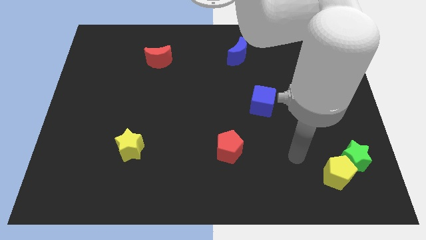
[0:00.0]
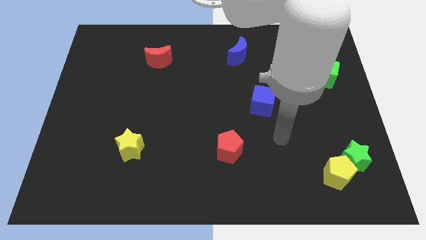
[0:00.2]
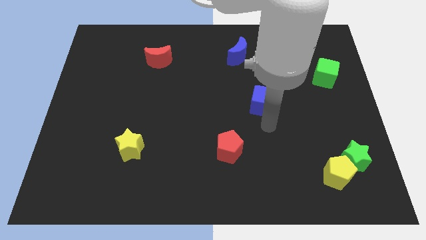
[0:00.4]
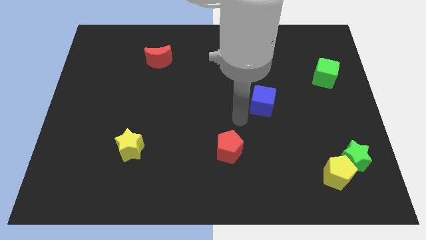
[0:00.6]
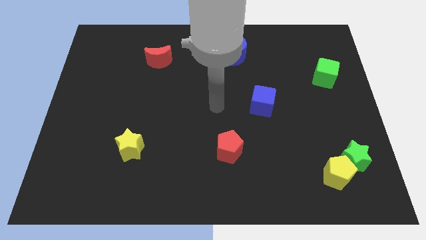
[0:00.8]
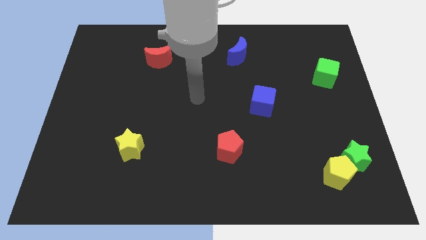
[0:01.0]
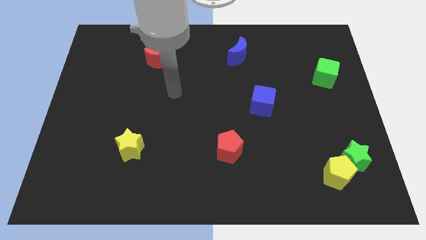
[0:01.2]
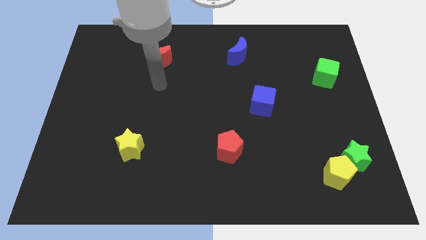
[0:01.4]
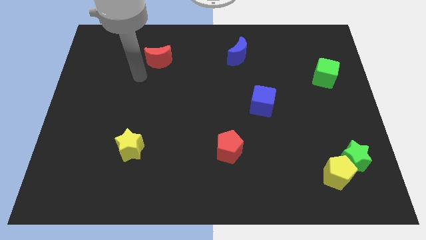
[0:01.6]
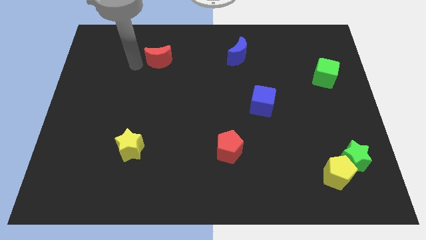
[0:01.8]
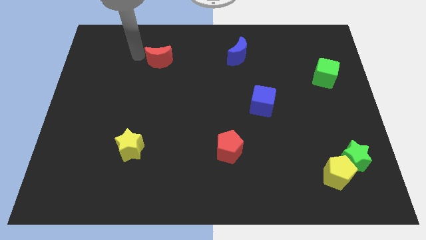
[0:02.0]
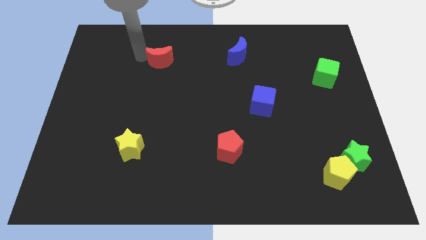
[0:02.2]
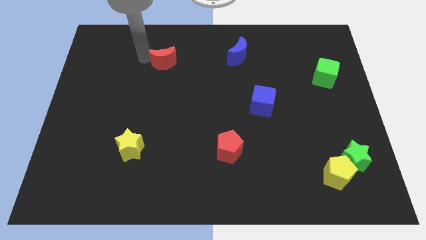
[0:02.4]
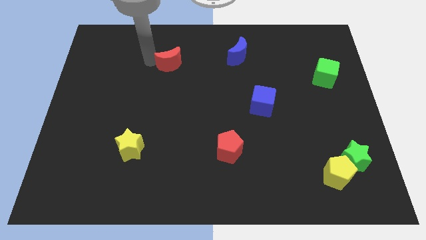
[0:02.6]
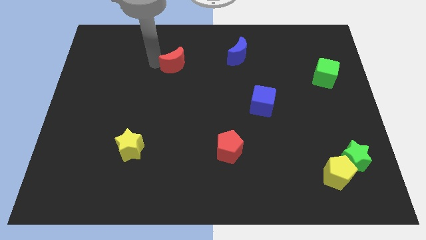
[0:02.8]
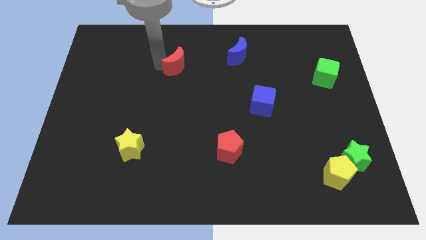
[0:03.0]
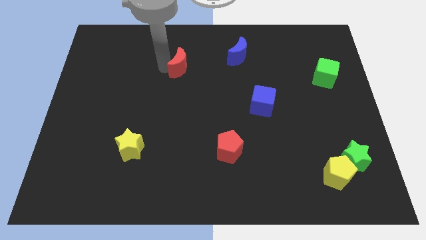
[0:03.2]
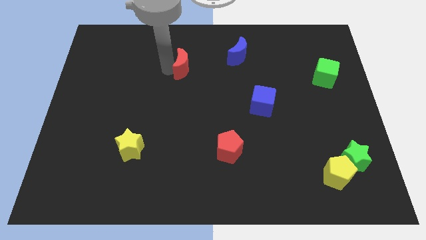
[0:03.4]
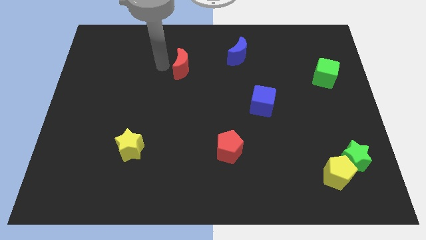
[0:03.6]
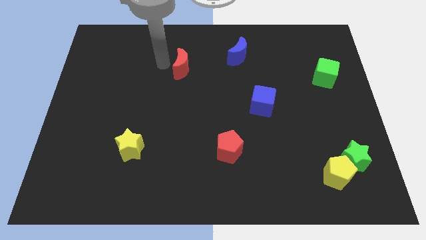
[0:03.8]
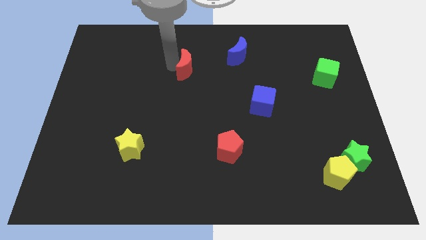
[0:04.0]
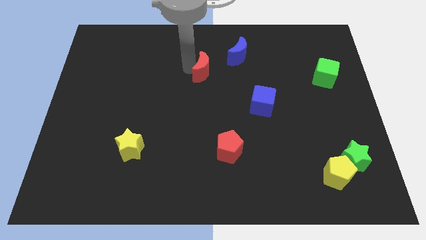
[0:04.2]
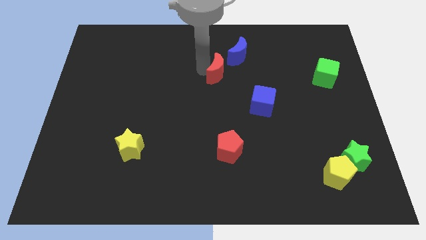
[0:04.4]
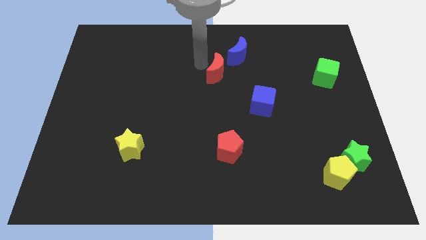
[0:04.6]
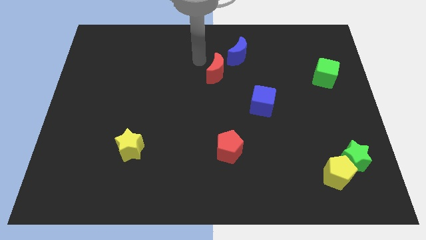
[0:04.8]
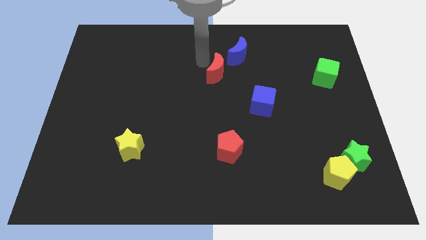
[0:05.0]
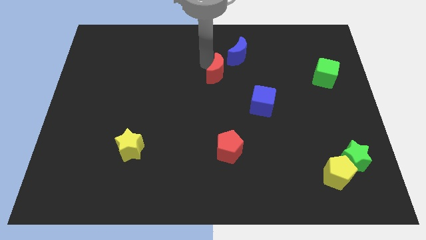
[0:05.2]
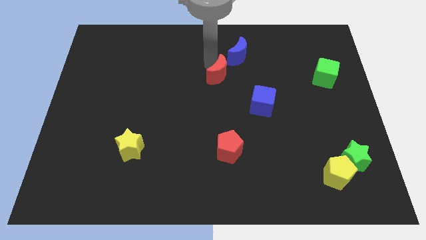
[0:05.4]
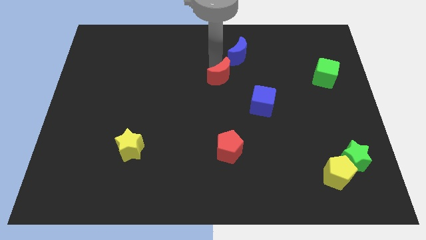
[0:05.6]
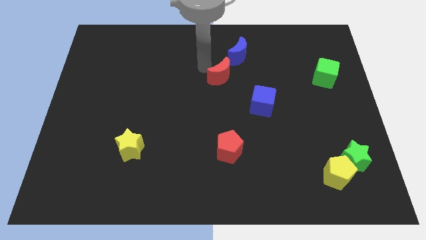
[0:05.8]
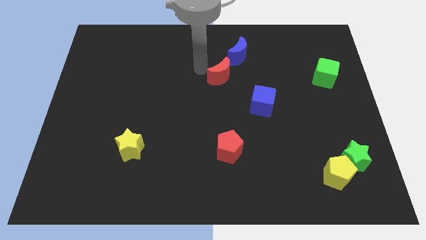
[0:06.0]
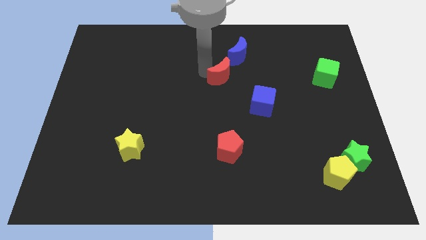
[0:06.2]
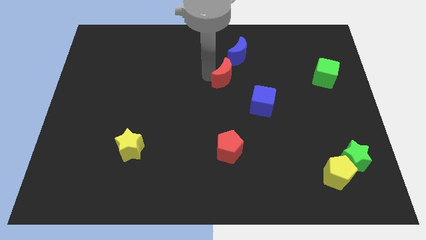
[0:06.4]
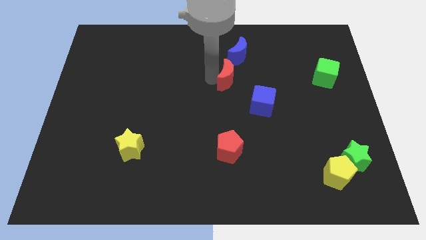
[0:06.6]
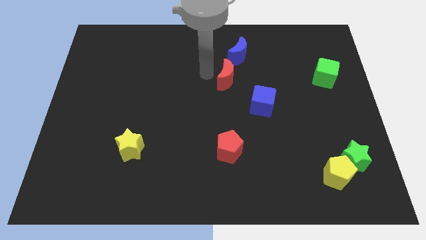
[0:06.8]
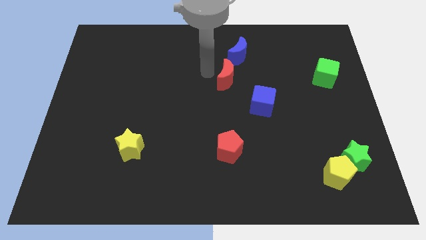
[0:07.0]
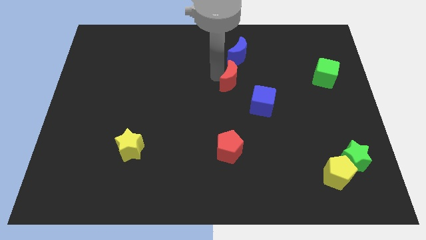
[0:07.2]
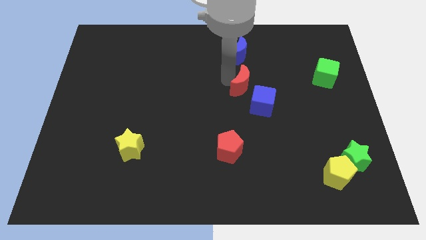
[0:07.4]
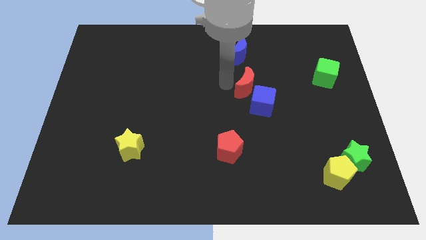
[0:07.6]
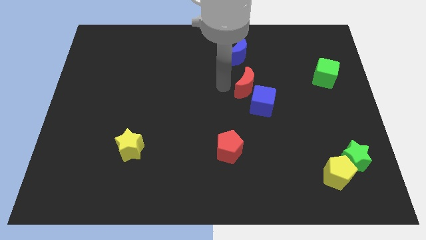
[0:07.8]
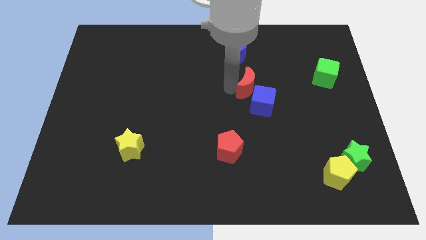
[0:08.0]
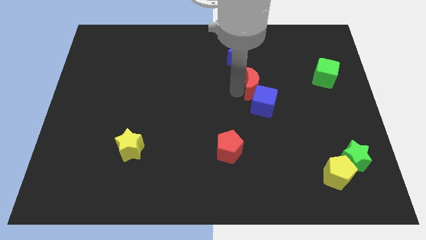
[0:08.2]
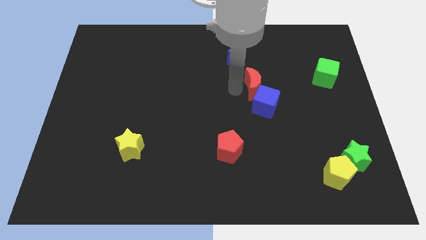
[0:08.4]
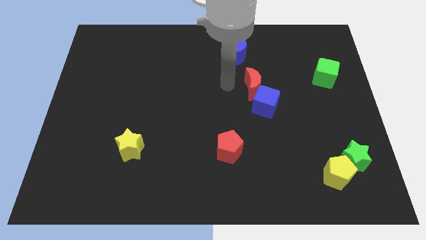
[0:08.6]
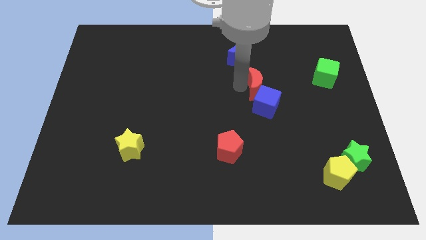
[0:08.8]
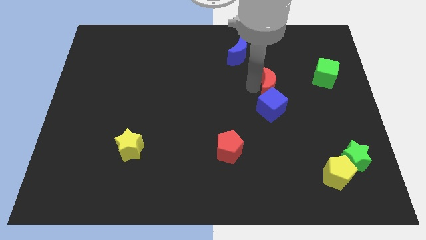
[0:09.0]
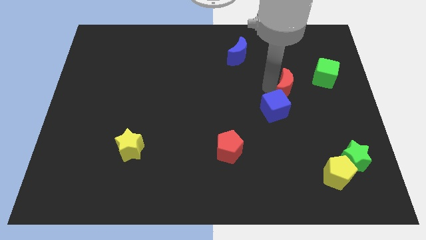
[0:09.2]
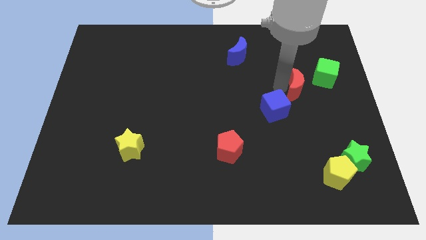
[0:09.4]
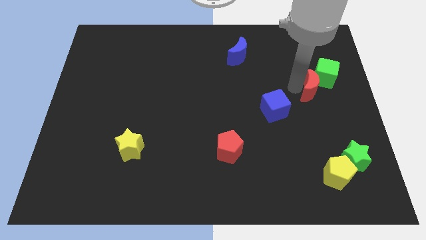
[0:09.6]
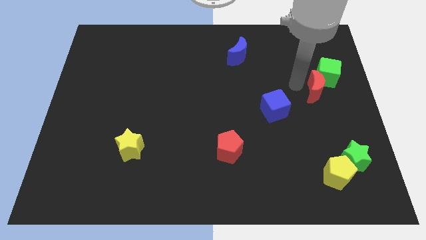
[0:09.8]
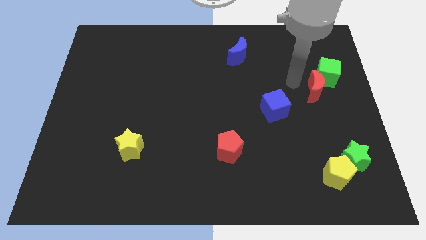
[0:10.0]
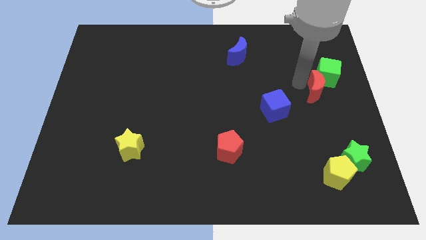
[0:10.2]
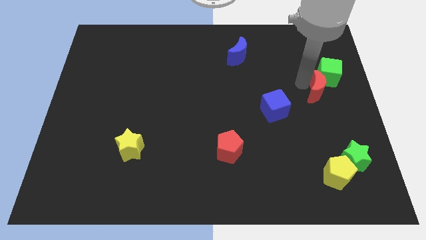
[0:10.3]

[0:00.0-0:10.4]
slide the red moon to the right side of the board

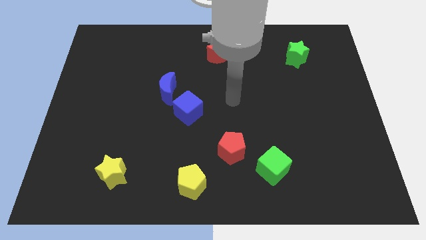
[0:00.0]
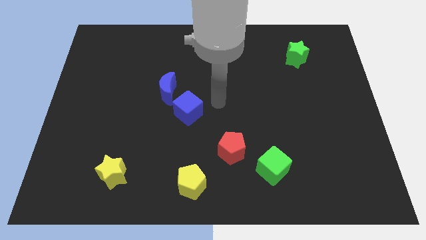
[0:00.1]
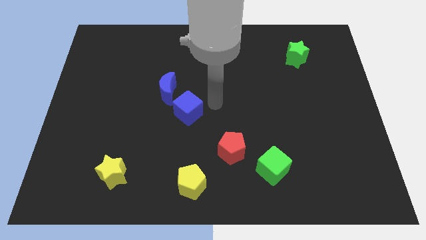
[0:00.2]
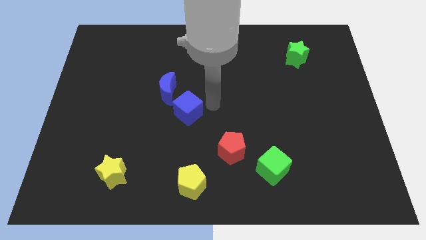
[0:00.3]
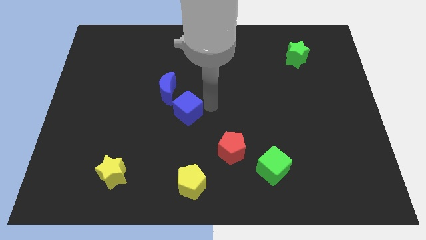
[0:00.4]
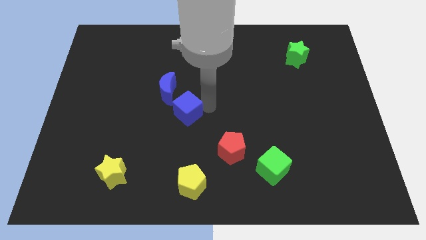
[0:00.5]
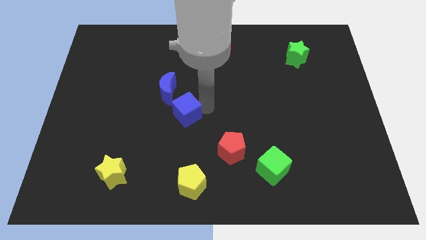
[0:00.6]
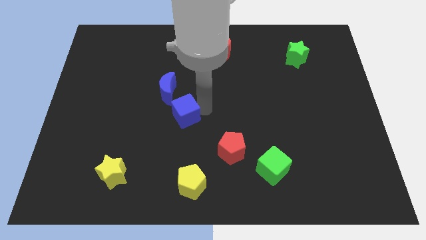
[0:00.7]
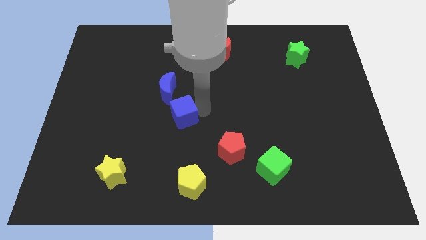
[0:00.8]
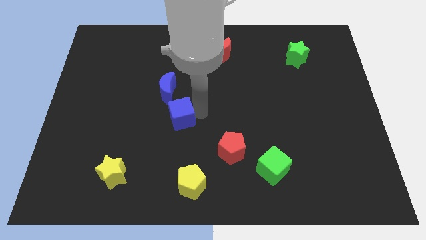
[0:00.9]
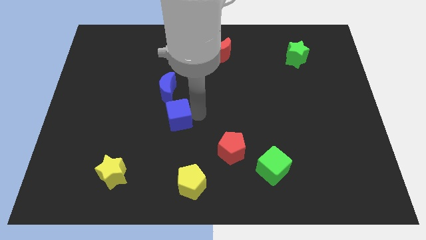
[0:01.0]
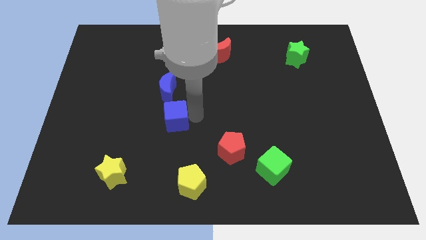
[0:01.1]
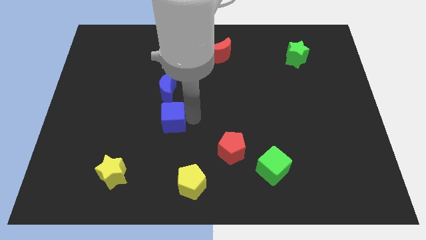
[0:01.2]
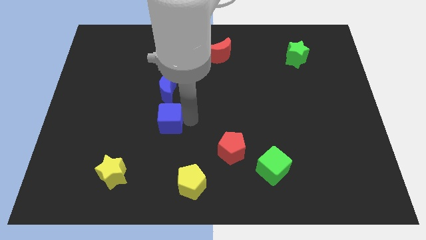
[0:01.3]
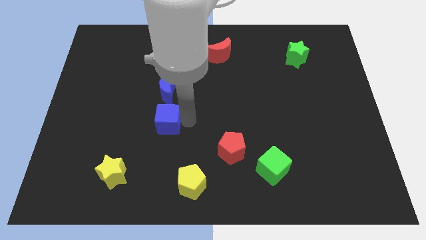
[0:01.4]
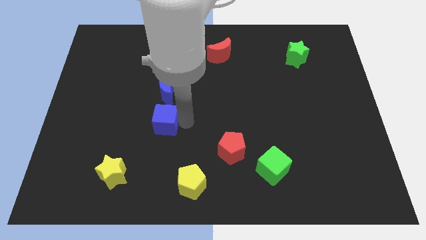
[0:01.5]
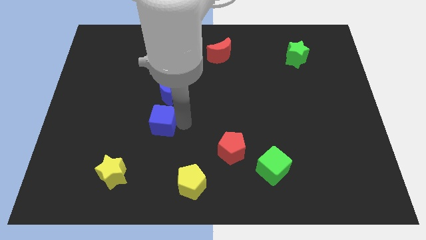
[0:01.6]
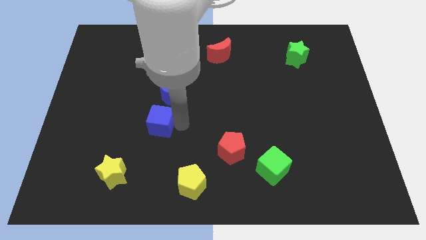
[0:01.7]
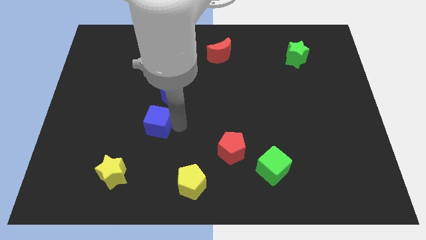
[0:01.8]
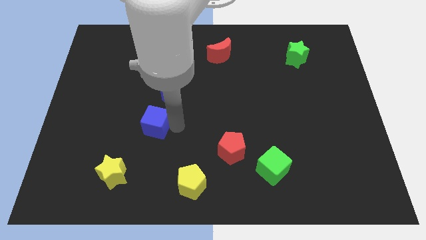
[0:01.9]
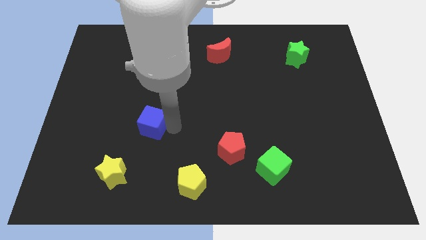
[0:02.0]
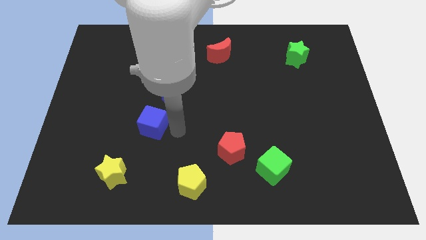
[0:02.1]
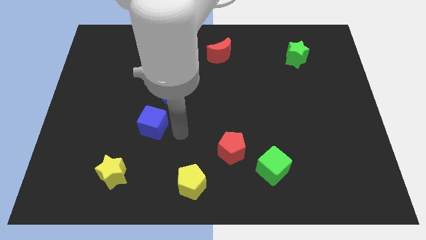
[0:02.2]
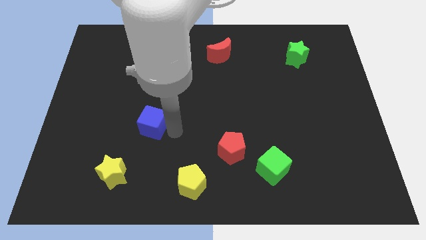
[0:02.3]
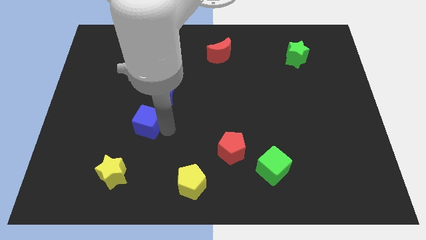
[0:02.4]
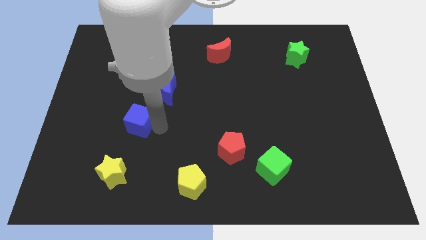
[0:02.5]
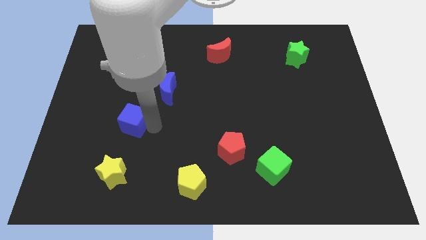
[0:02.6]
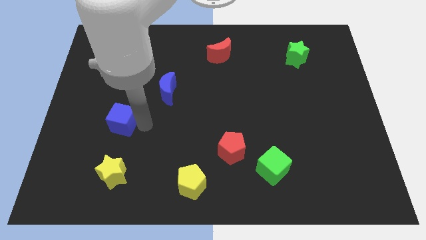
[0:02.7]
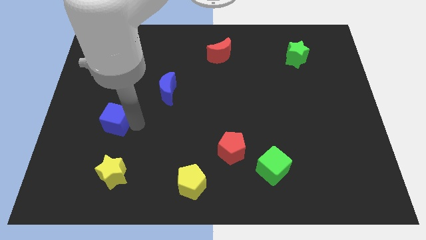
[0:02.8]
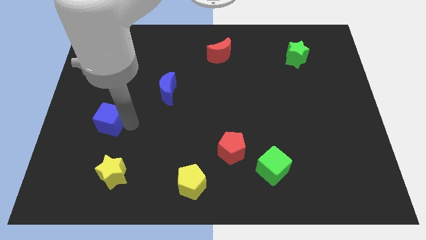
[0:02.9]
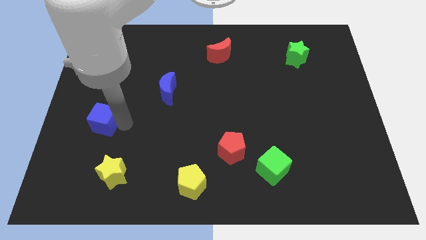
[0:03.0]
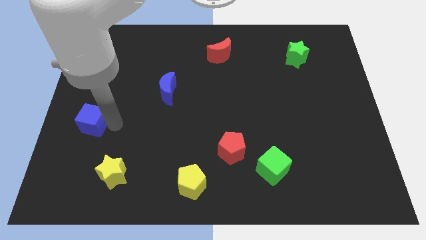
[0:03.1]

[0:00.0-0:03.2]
push the blue cube to the center left
